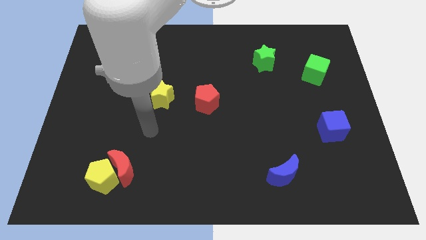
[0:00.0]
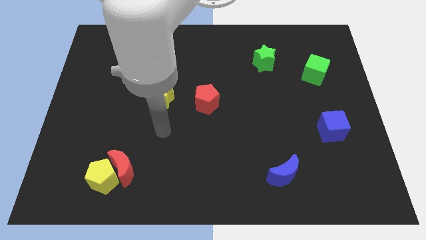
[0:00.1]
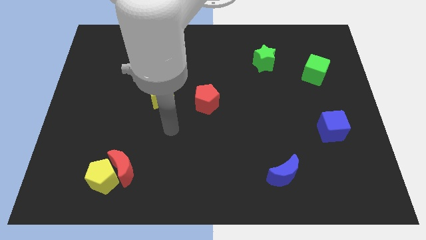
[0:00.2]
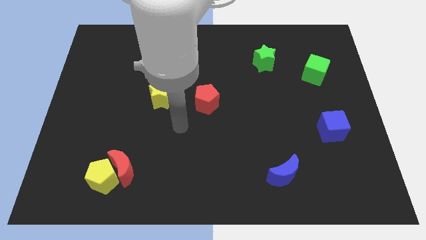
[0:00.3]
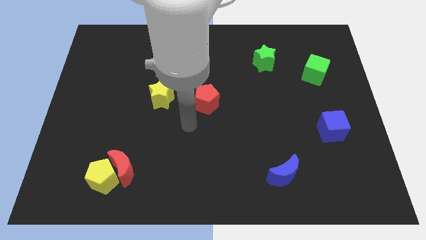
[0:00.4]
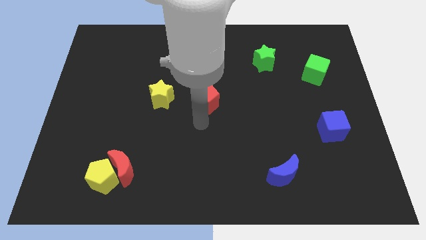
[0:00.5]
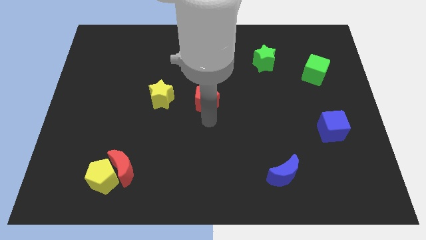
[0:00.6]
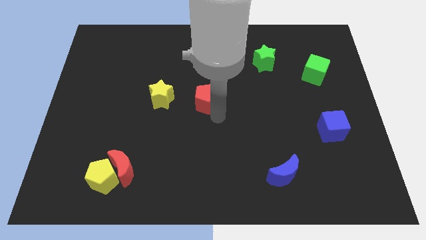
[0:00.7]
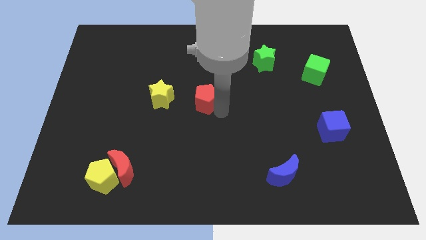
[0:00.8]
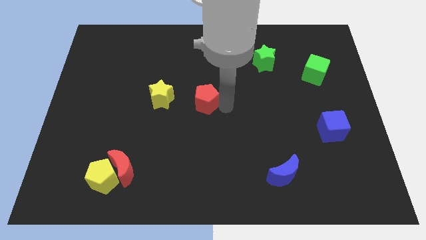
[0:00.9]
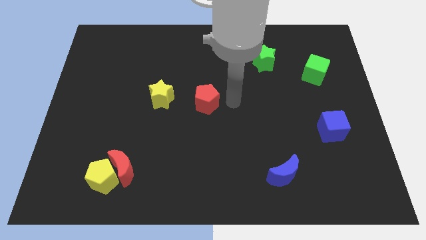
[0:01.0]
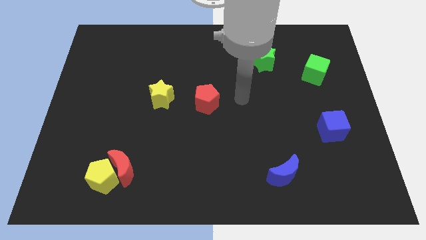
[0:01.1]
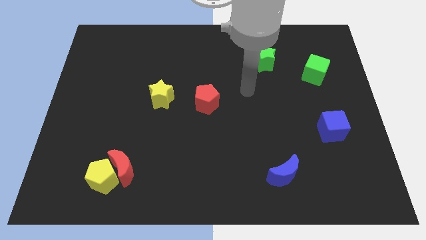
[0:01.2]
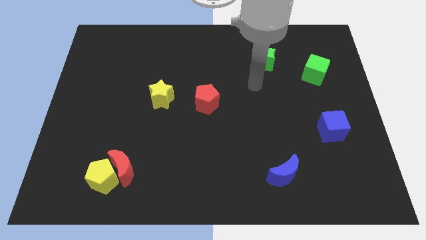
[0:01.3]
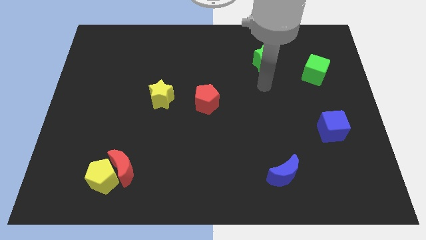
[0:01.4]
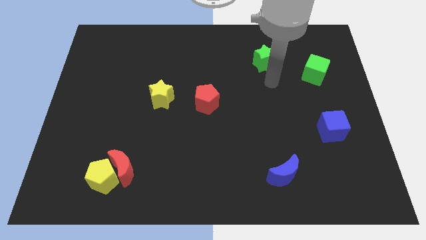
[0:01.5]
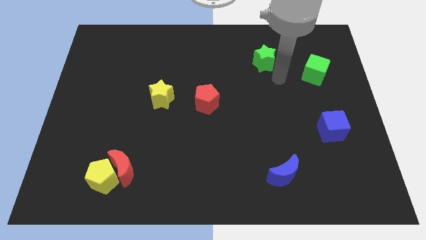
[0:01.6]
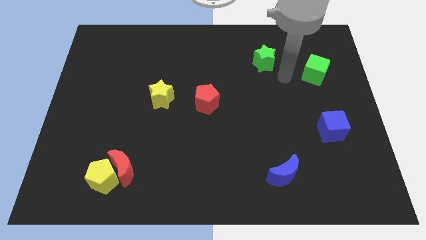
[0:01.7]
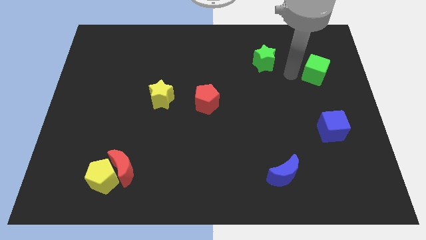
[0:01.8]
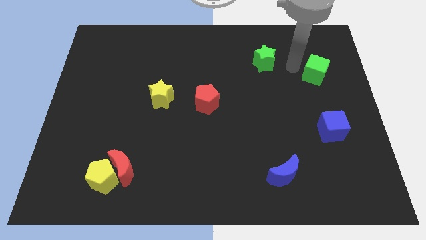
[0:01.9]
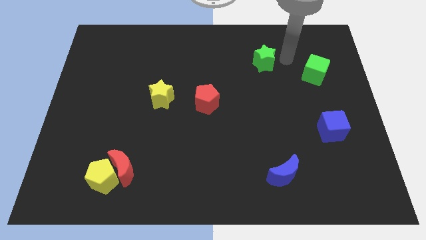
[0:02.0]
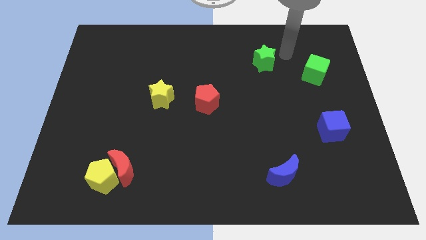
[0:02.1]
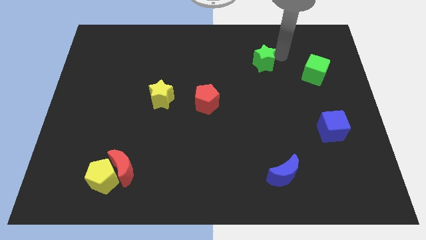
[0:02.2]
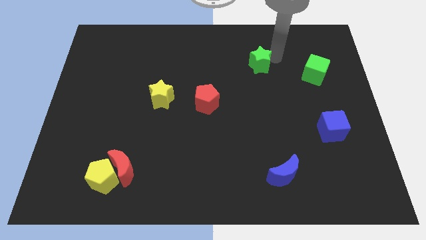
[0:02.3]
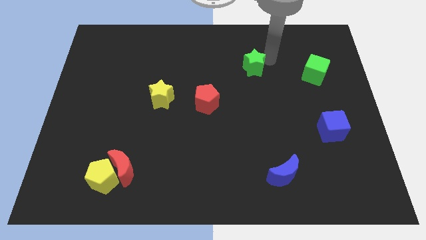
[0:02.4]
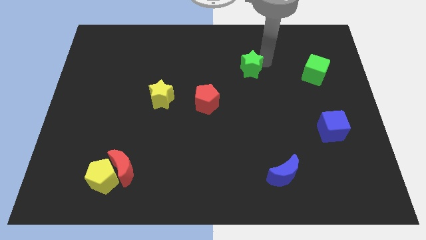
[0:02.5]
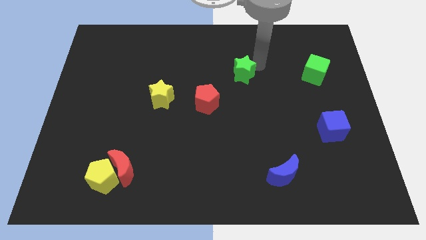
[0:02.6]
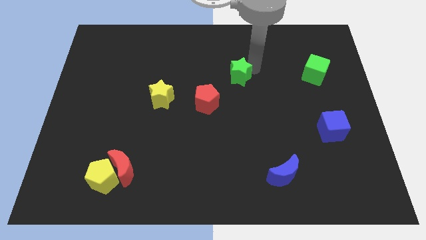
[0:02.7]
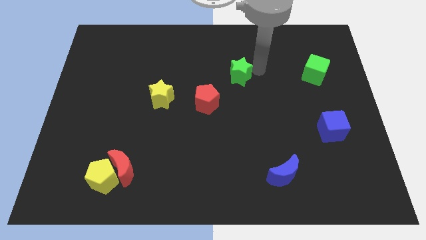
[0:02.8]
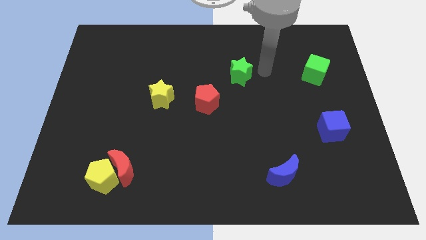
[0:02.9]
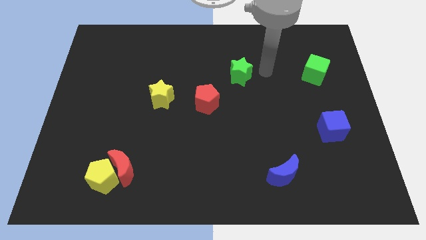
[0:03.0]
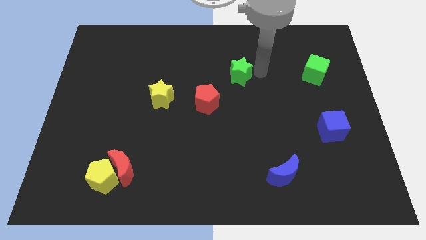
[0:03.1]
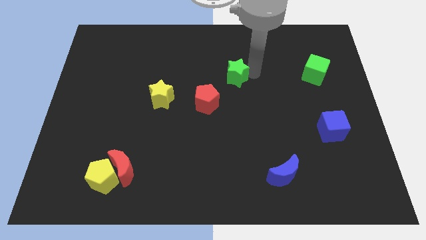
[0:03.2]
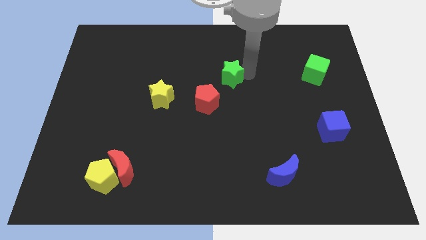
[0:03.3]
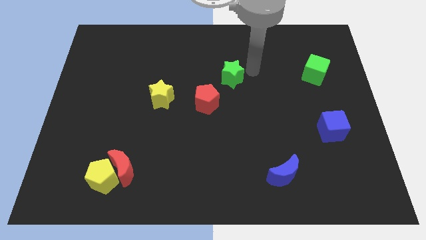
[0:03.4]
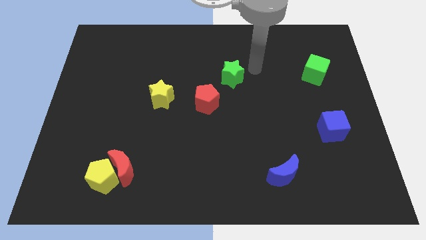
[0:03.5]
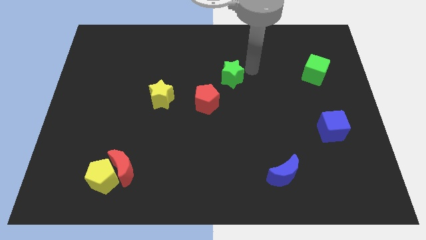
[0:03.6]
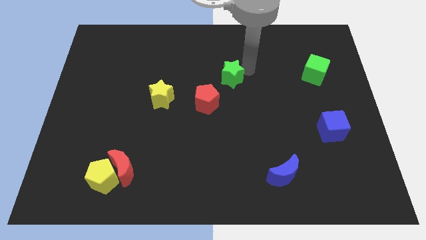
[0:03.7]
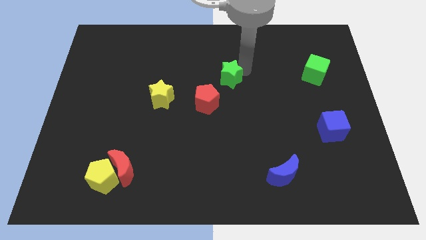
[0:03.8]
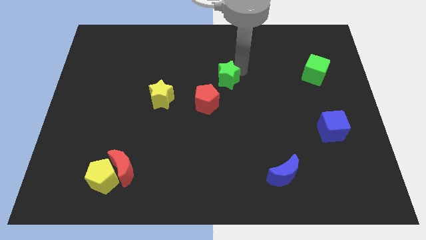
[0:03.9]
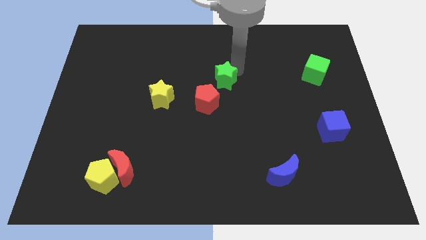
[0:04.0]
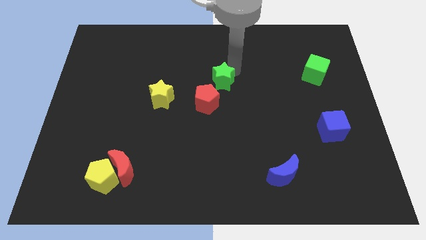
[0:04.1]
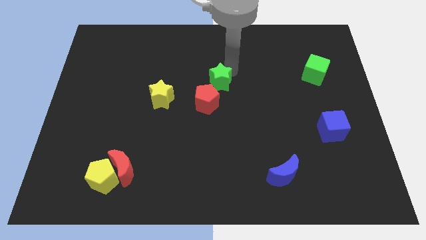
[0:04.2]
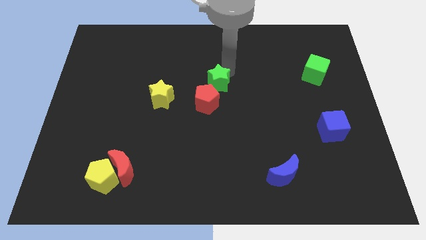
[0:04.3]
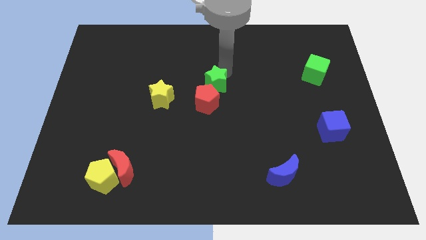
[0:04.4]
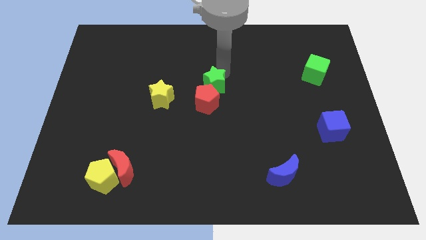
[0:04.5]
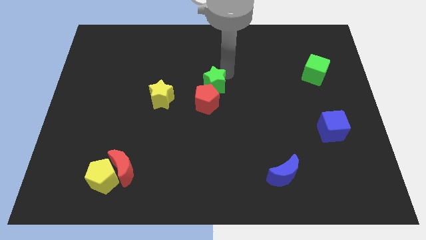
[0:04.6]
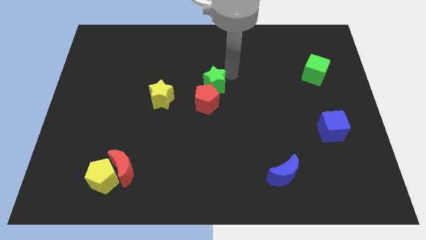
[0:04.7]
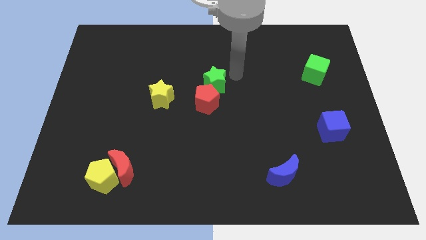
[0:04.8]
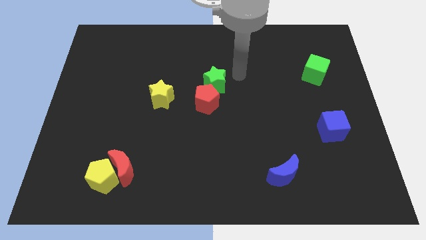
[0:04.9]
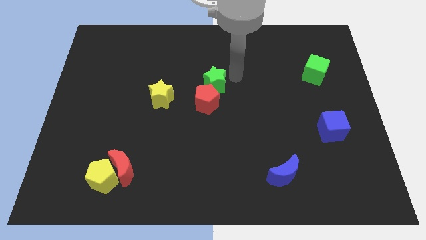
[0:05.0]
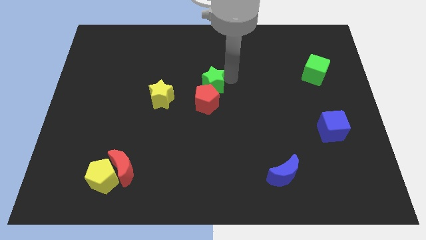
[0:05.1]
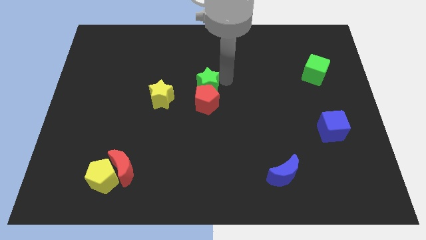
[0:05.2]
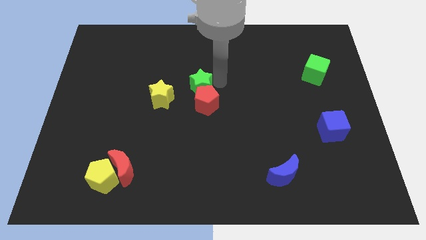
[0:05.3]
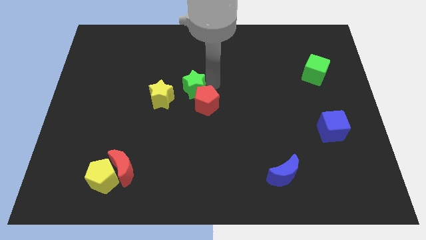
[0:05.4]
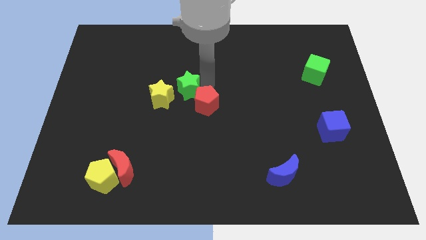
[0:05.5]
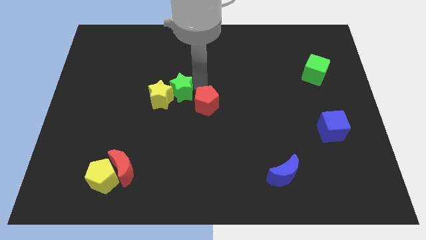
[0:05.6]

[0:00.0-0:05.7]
put the green star towards the yellow star

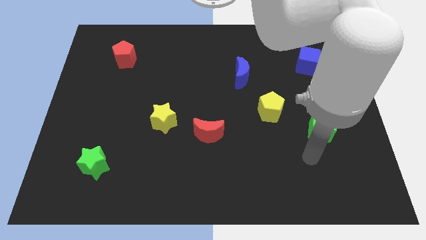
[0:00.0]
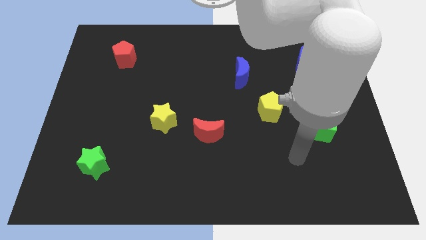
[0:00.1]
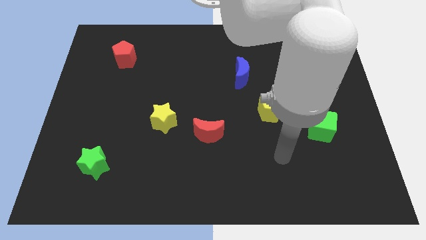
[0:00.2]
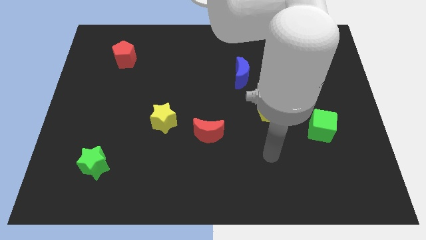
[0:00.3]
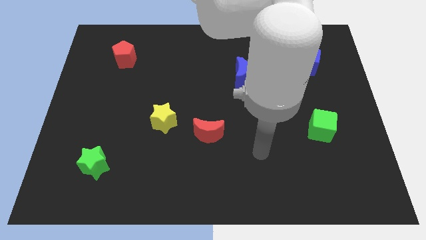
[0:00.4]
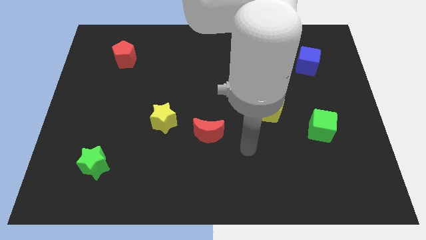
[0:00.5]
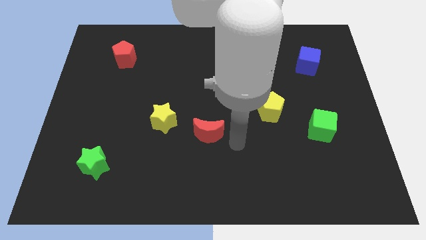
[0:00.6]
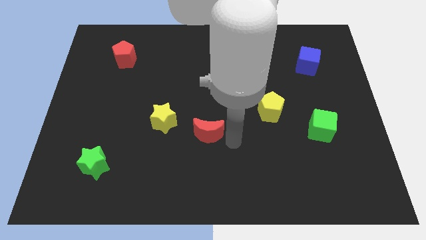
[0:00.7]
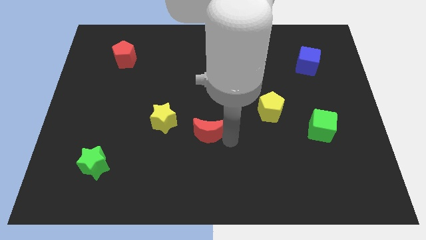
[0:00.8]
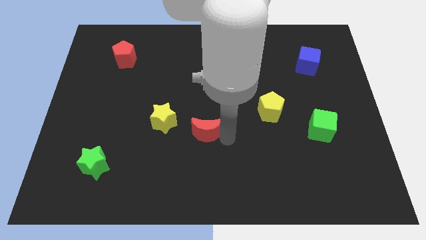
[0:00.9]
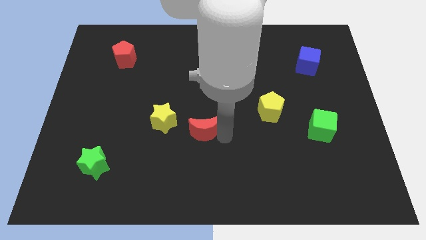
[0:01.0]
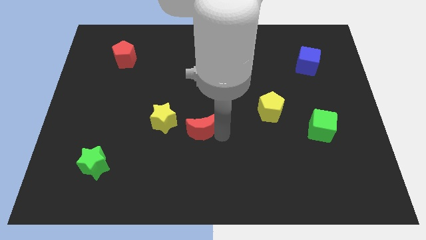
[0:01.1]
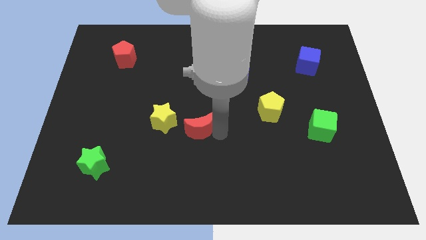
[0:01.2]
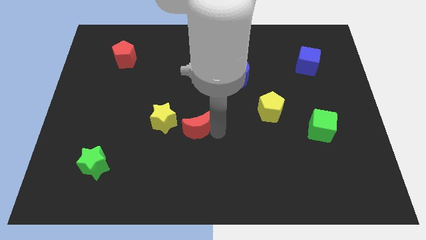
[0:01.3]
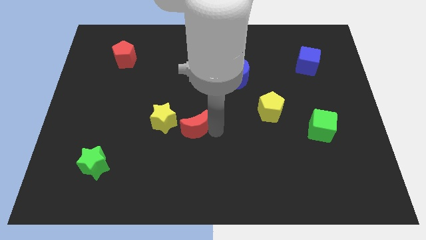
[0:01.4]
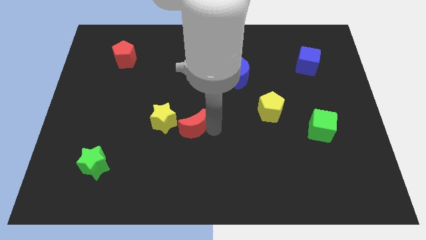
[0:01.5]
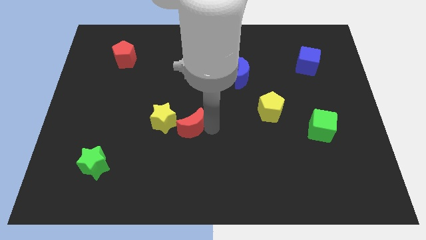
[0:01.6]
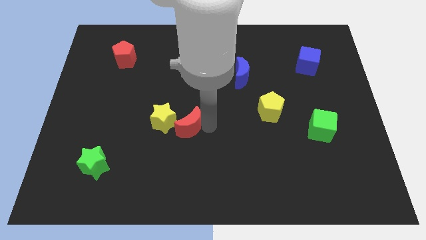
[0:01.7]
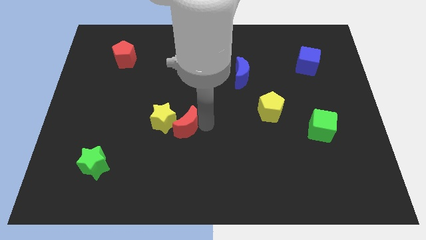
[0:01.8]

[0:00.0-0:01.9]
move the red moon close to the yellow star
